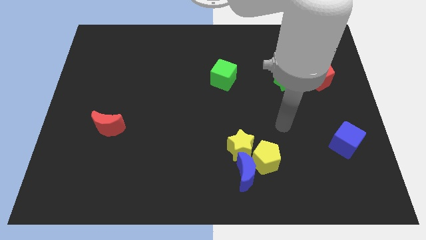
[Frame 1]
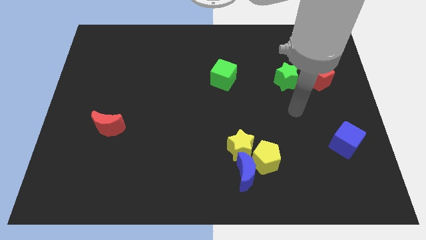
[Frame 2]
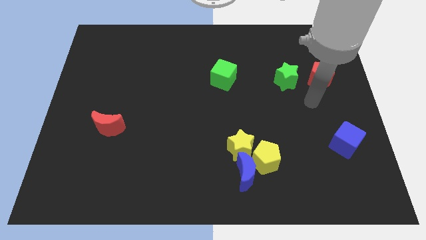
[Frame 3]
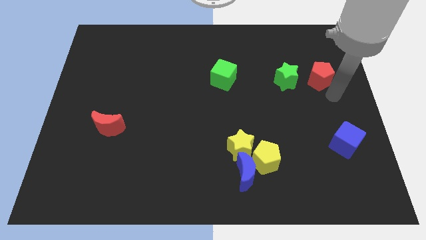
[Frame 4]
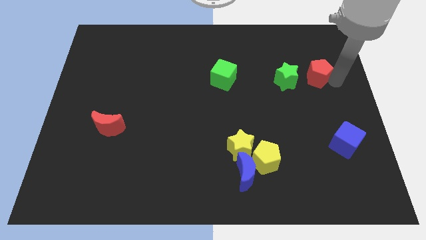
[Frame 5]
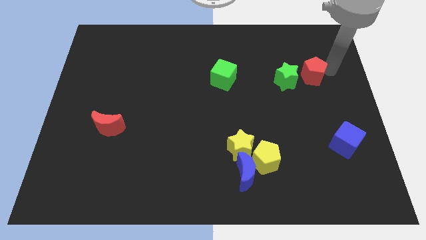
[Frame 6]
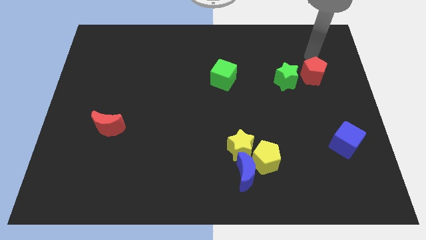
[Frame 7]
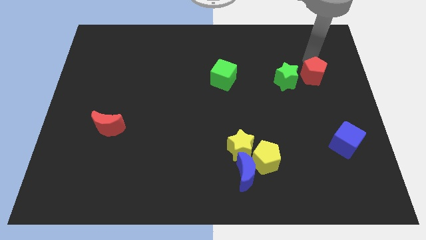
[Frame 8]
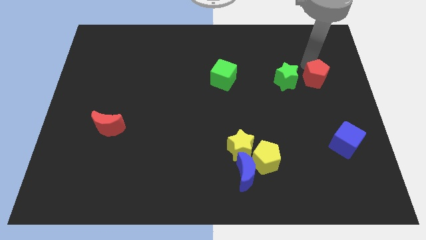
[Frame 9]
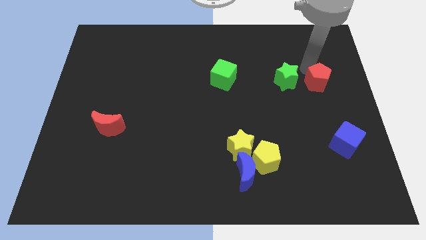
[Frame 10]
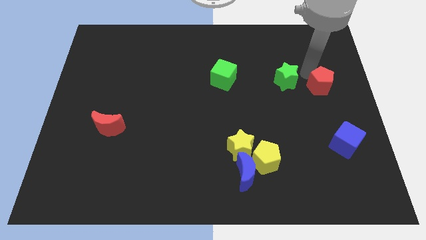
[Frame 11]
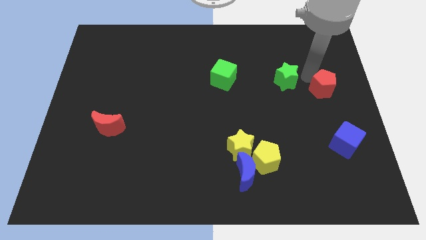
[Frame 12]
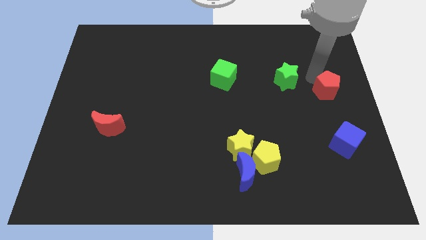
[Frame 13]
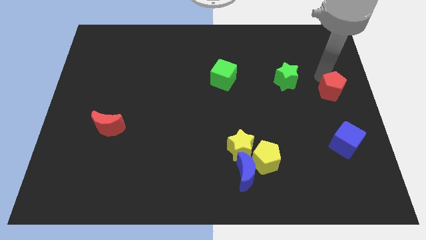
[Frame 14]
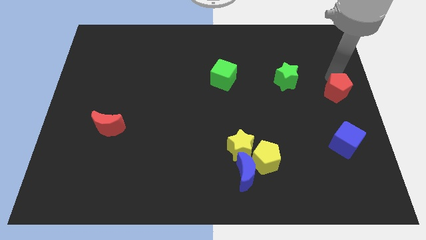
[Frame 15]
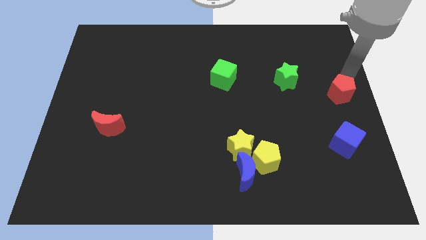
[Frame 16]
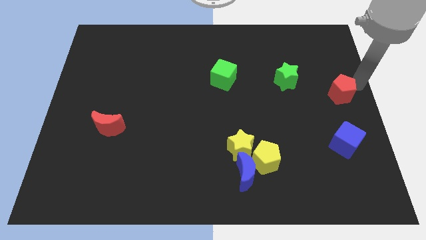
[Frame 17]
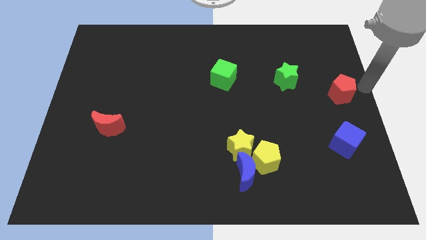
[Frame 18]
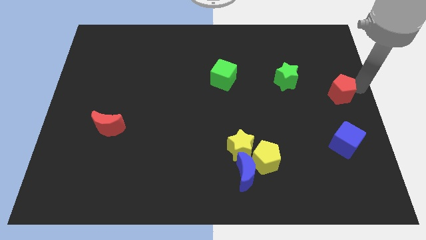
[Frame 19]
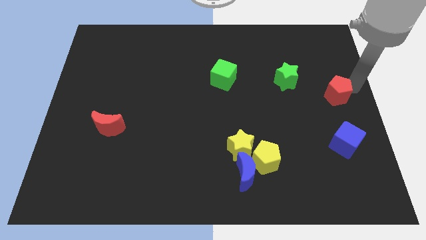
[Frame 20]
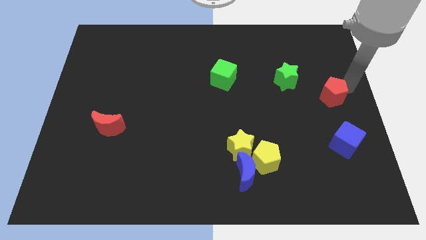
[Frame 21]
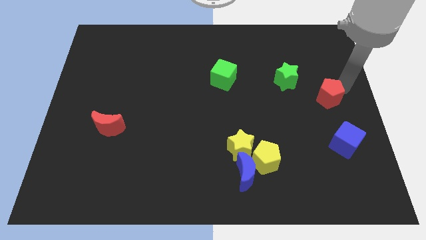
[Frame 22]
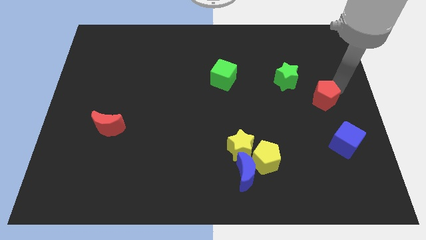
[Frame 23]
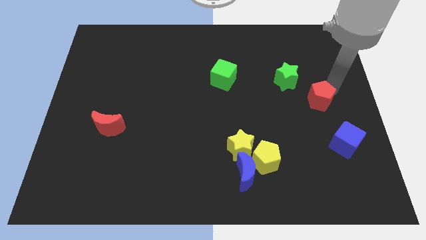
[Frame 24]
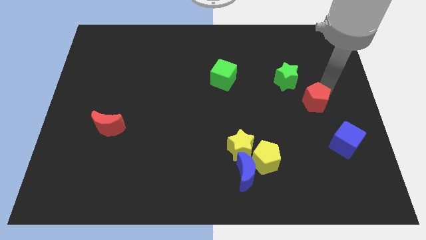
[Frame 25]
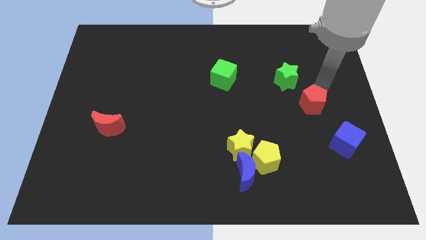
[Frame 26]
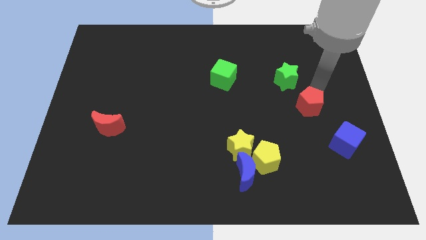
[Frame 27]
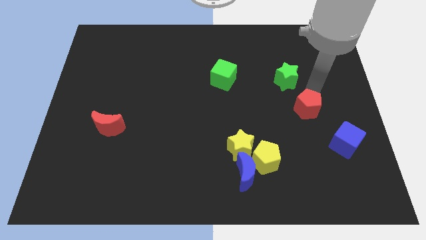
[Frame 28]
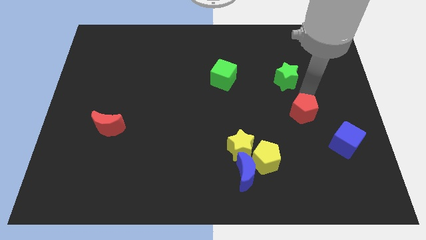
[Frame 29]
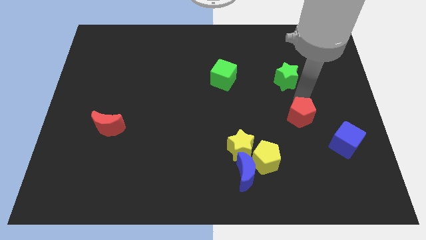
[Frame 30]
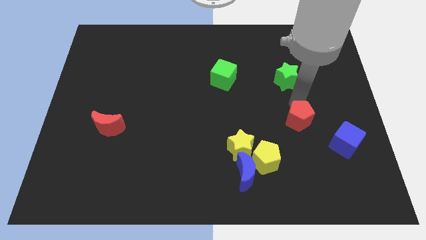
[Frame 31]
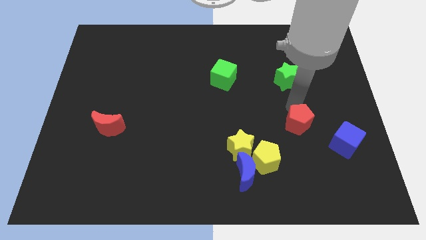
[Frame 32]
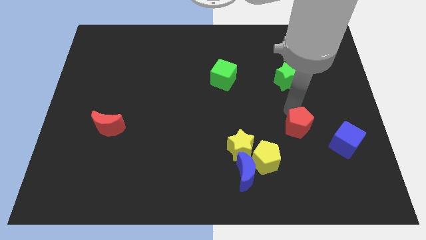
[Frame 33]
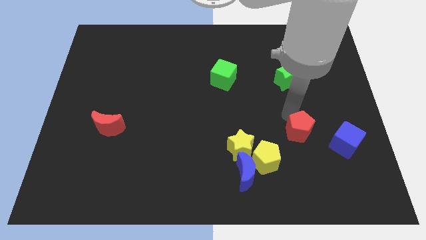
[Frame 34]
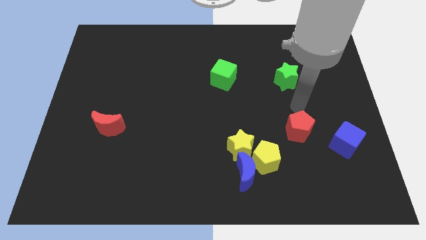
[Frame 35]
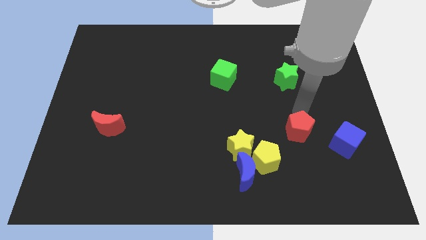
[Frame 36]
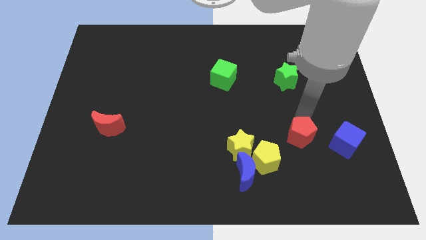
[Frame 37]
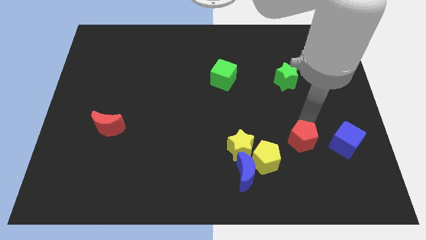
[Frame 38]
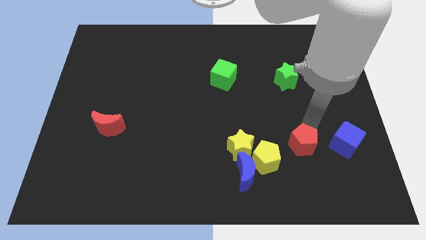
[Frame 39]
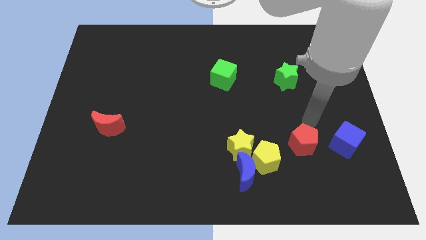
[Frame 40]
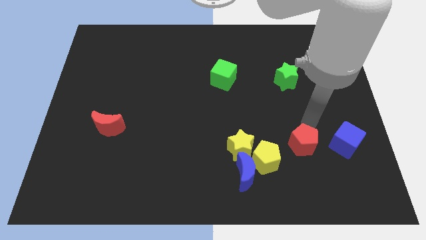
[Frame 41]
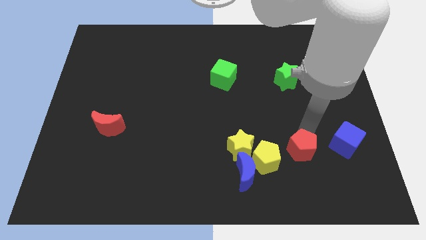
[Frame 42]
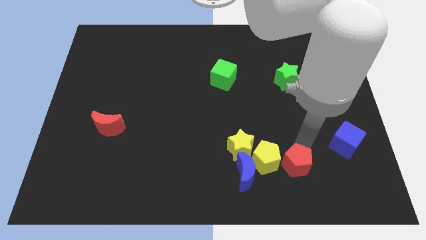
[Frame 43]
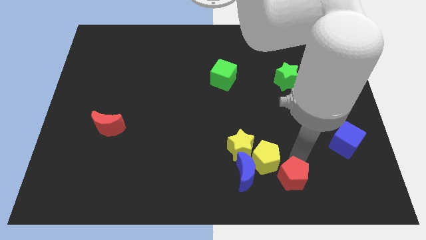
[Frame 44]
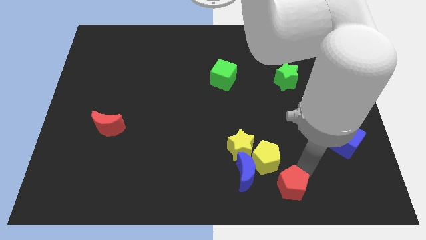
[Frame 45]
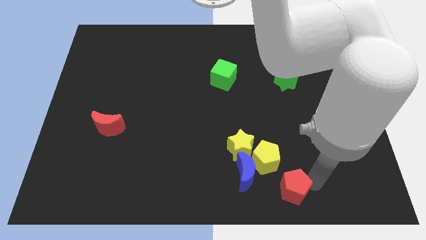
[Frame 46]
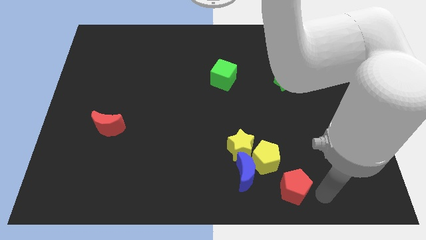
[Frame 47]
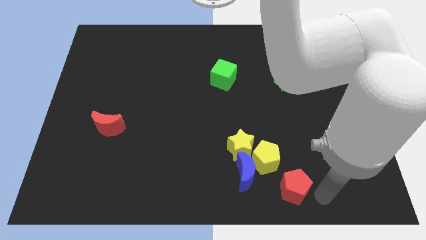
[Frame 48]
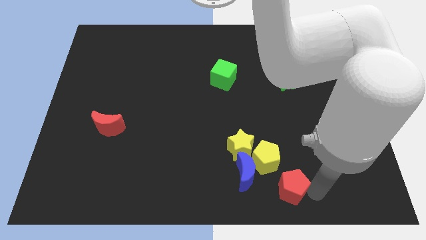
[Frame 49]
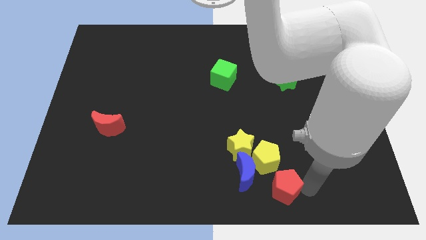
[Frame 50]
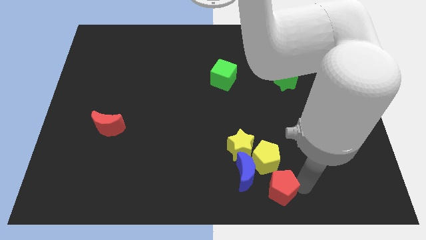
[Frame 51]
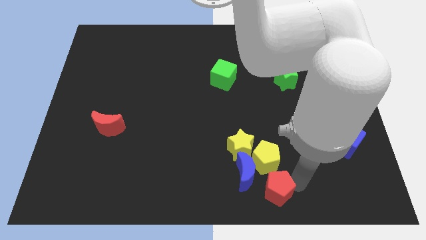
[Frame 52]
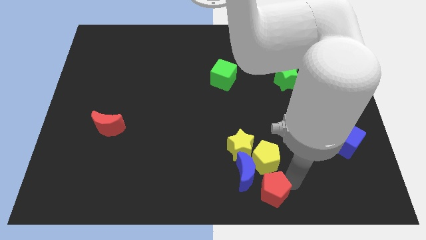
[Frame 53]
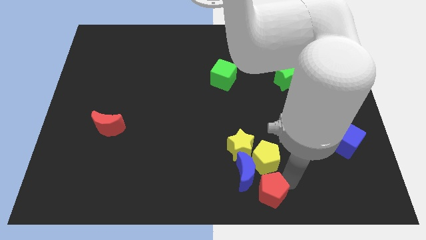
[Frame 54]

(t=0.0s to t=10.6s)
move the red pentagon next to the blue moon

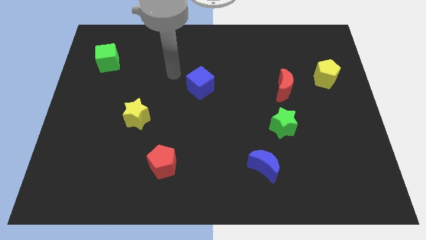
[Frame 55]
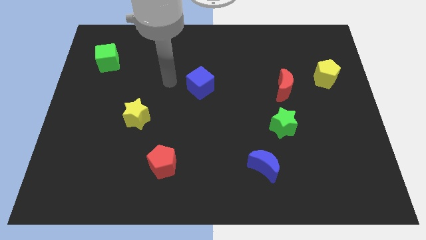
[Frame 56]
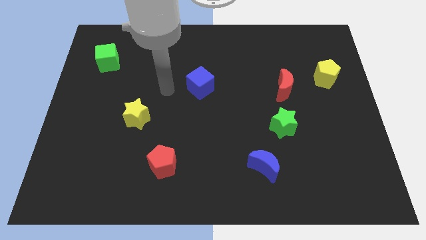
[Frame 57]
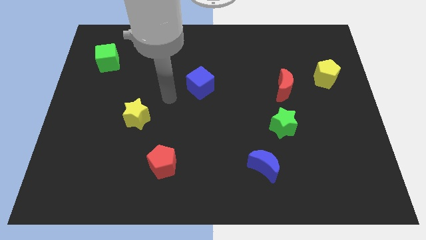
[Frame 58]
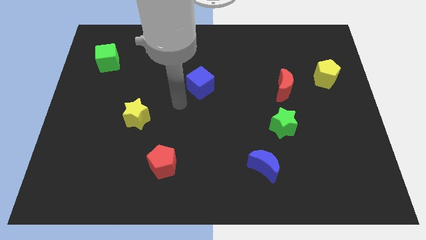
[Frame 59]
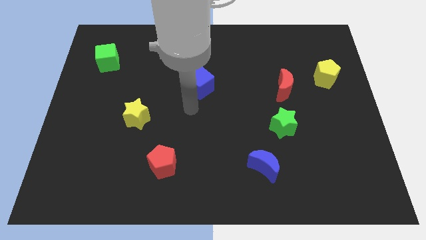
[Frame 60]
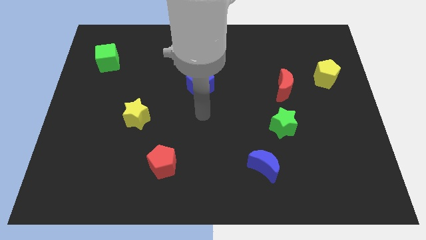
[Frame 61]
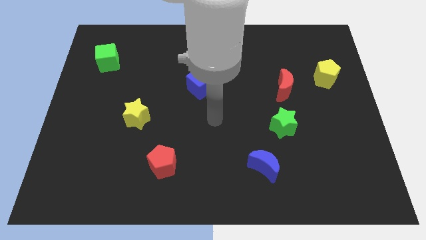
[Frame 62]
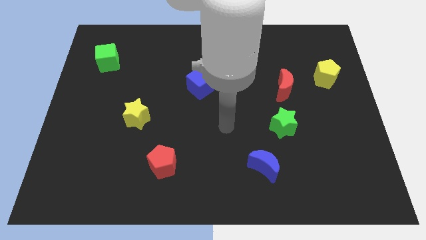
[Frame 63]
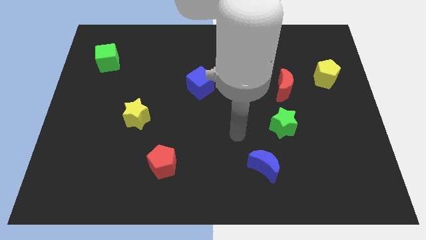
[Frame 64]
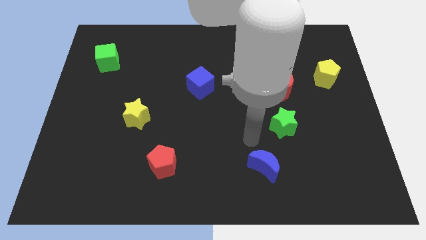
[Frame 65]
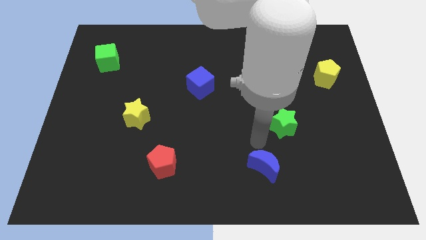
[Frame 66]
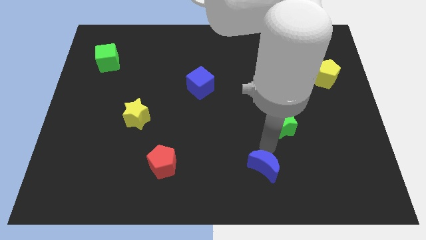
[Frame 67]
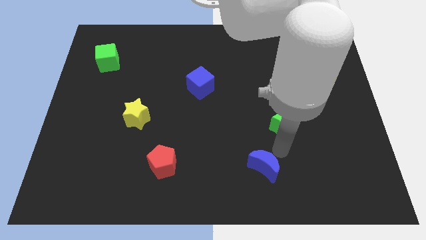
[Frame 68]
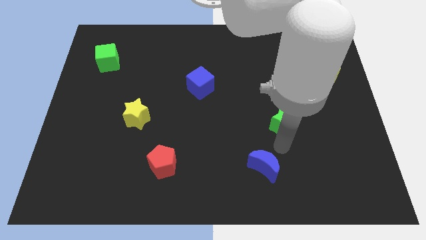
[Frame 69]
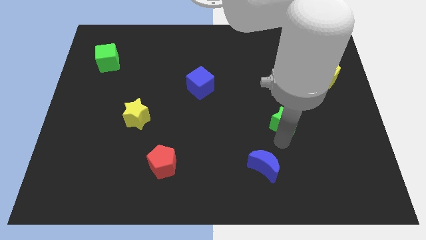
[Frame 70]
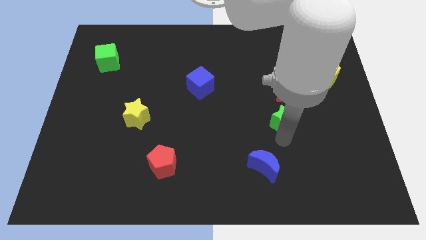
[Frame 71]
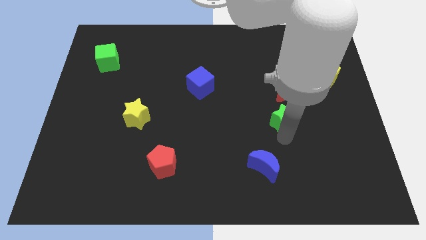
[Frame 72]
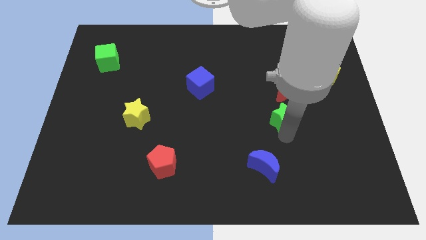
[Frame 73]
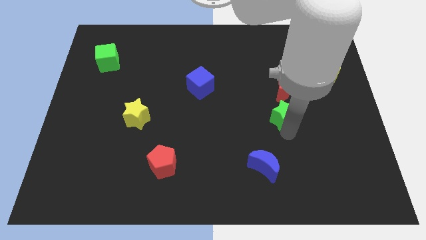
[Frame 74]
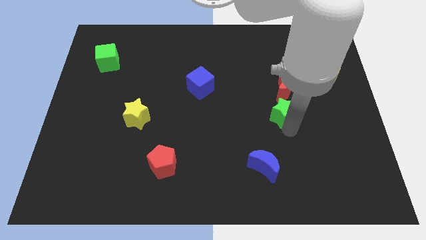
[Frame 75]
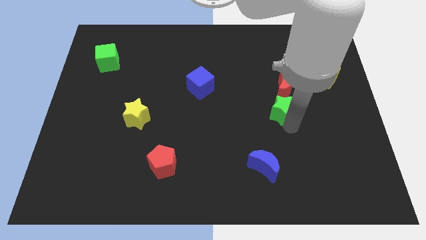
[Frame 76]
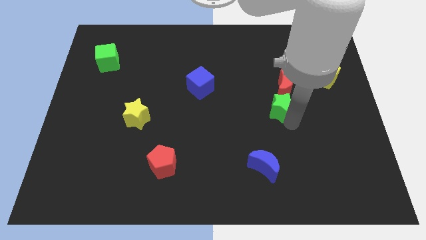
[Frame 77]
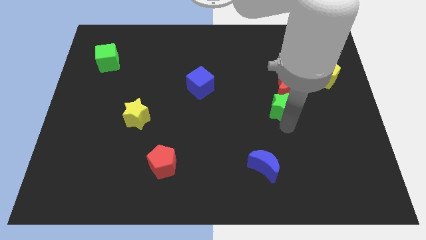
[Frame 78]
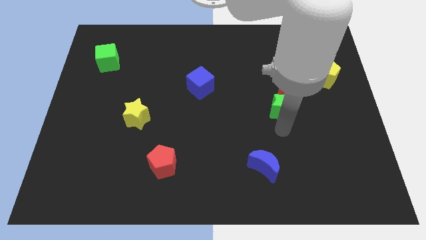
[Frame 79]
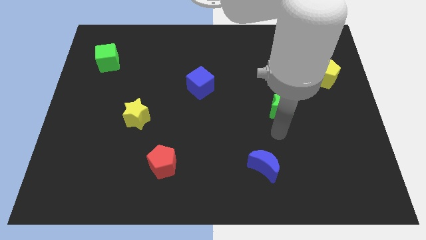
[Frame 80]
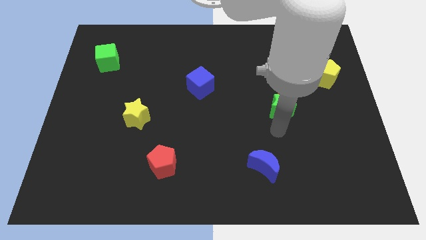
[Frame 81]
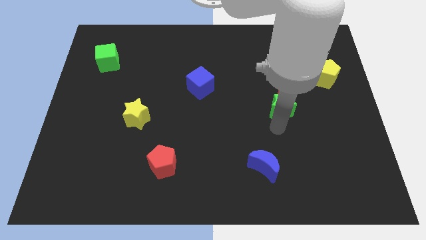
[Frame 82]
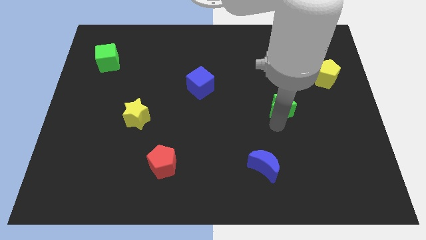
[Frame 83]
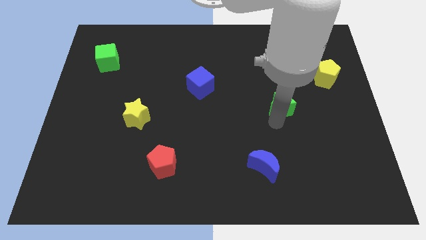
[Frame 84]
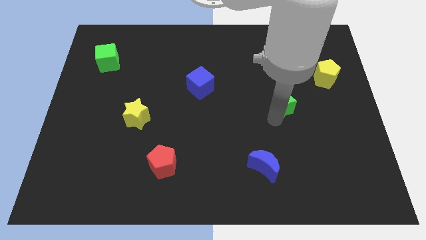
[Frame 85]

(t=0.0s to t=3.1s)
push the green star next to the red moon
